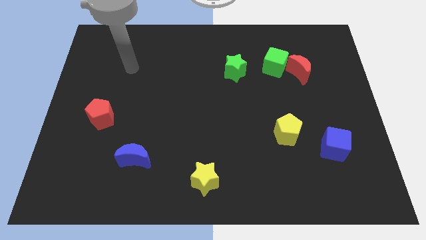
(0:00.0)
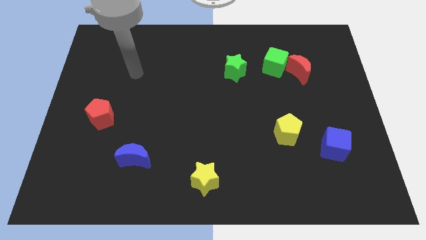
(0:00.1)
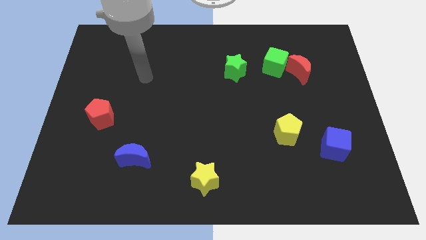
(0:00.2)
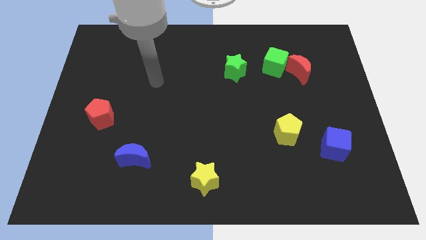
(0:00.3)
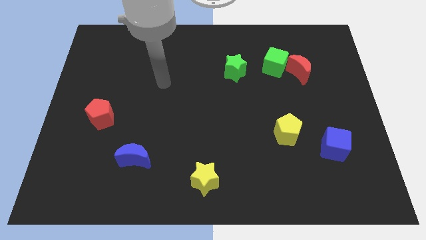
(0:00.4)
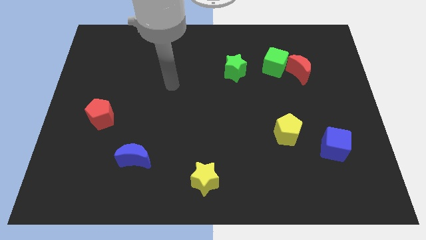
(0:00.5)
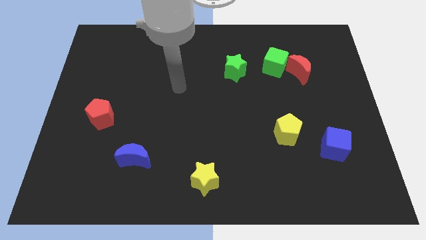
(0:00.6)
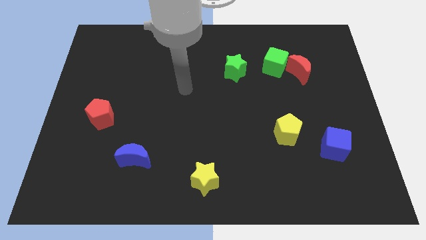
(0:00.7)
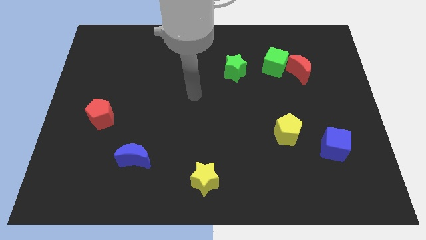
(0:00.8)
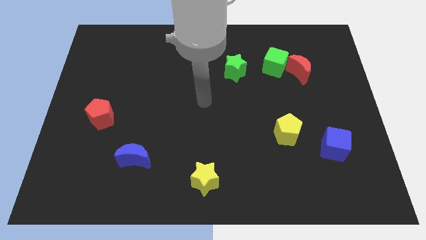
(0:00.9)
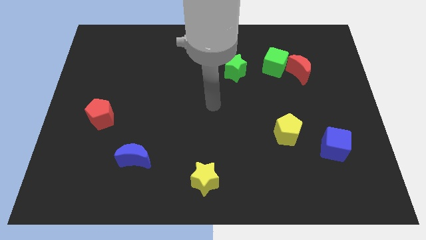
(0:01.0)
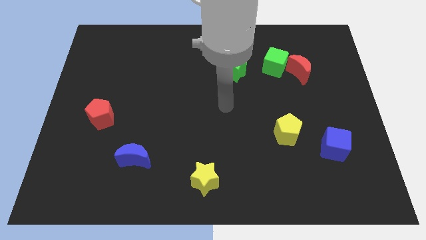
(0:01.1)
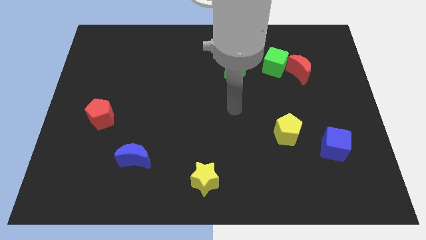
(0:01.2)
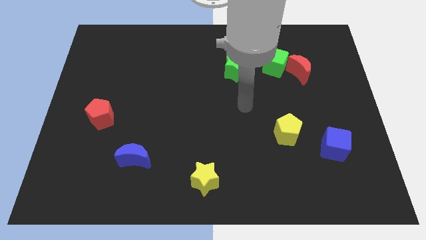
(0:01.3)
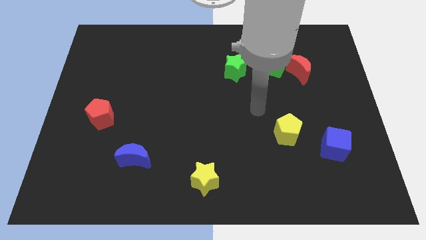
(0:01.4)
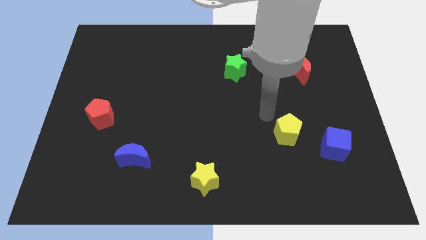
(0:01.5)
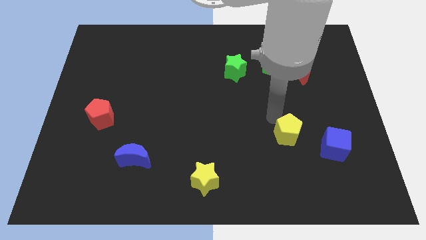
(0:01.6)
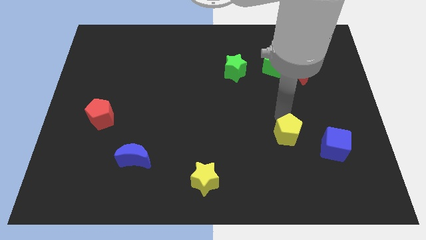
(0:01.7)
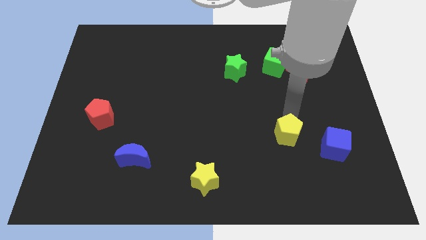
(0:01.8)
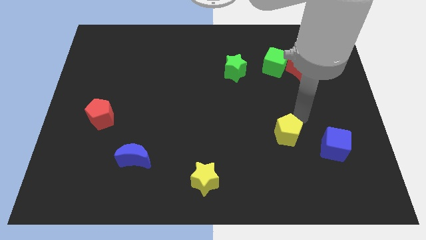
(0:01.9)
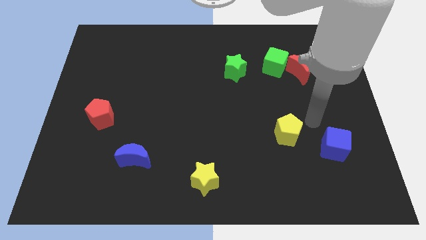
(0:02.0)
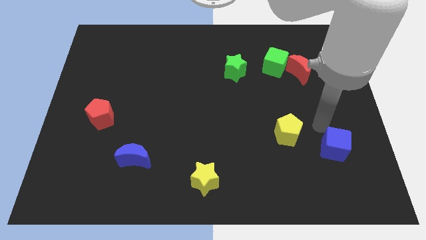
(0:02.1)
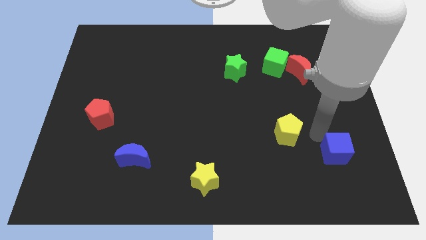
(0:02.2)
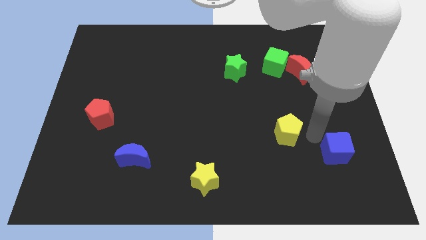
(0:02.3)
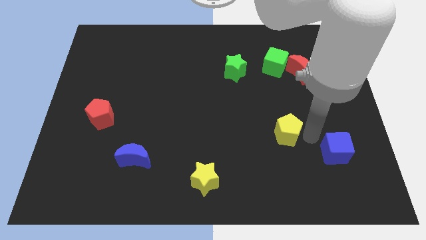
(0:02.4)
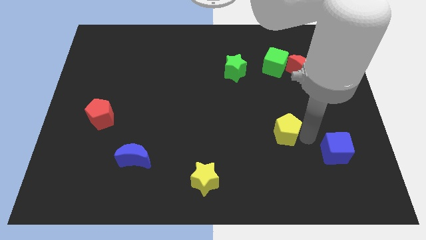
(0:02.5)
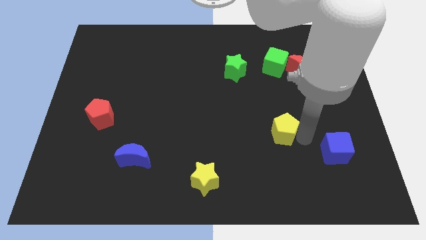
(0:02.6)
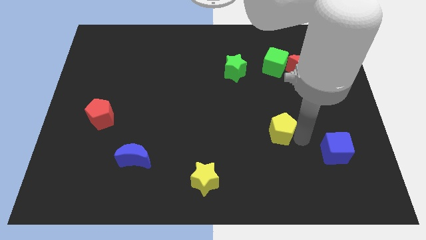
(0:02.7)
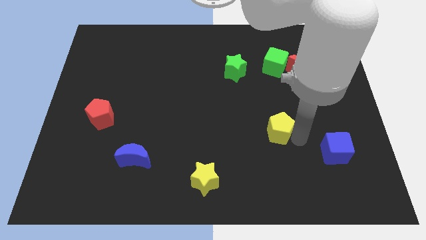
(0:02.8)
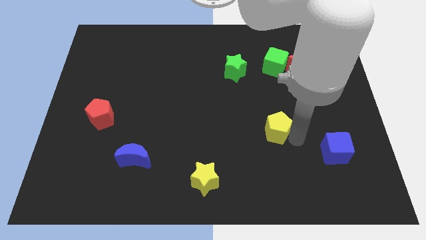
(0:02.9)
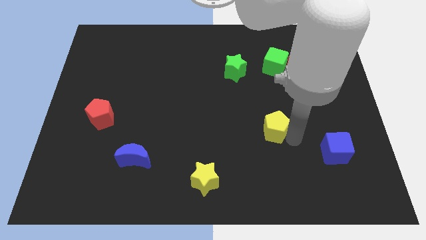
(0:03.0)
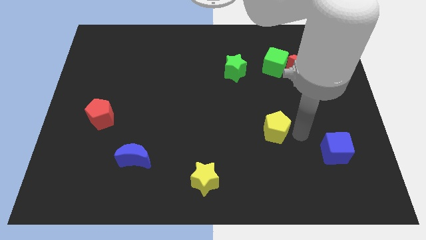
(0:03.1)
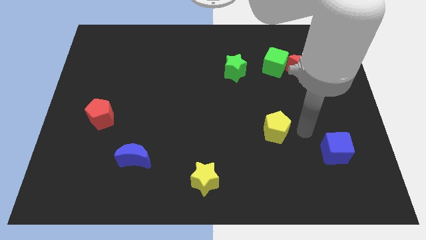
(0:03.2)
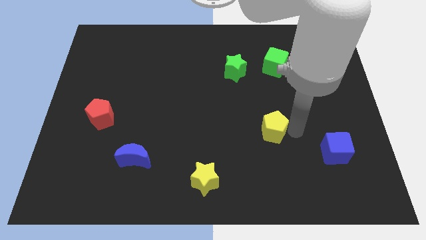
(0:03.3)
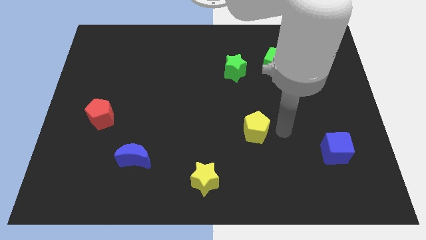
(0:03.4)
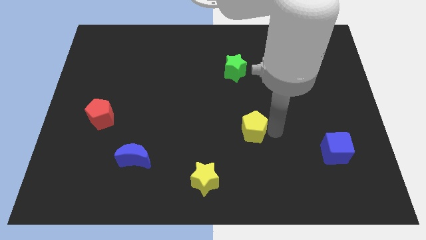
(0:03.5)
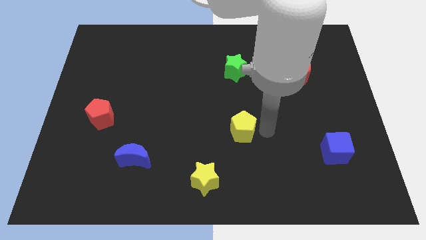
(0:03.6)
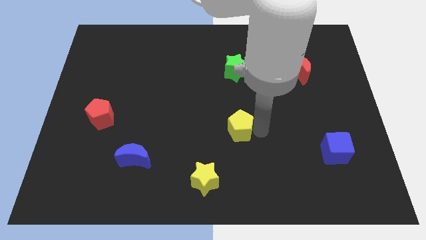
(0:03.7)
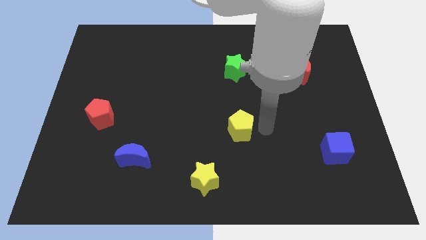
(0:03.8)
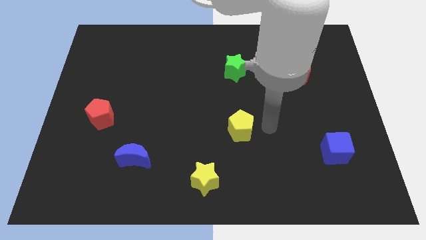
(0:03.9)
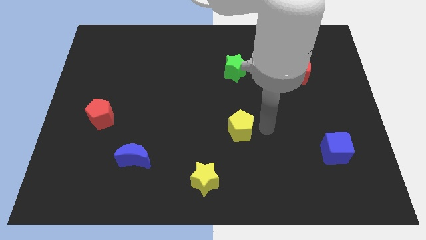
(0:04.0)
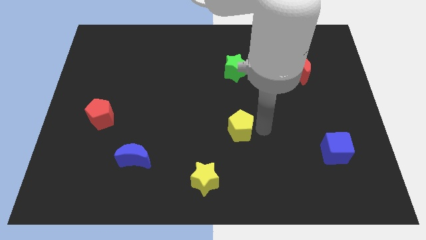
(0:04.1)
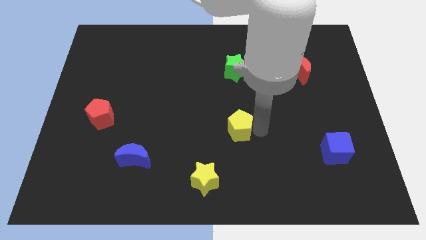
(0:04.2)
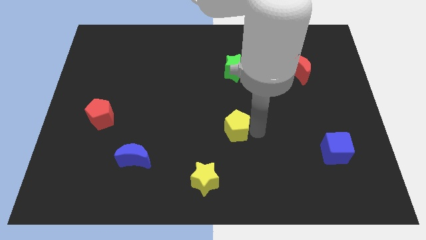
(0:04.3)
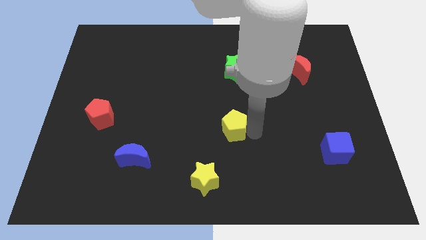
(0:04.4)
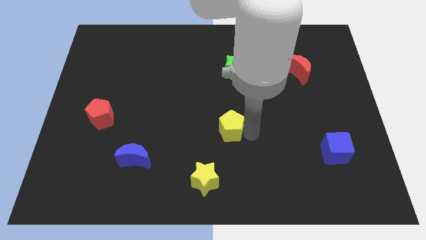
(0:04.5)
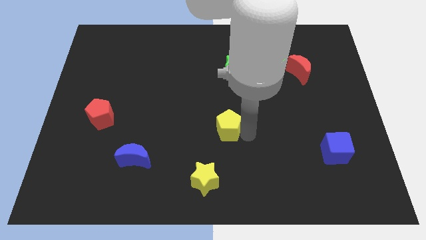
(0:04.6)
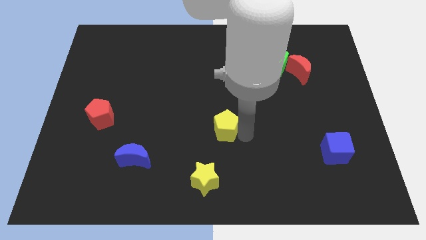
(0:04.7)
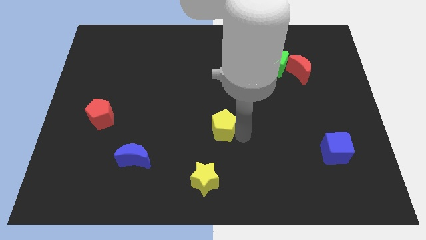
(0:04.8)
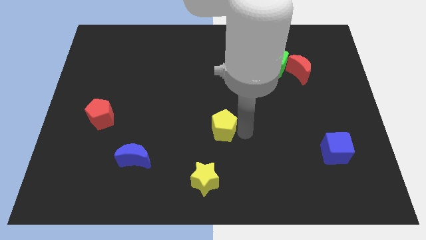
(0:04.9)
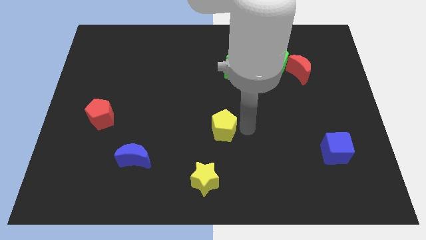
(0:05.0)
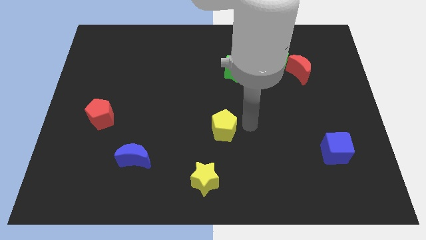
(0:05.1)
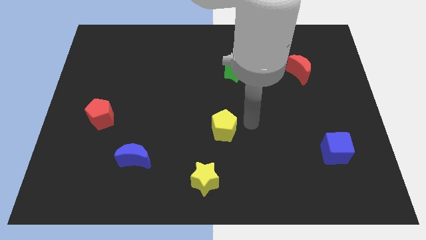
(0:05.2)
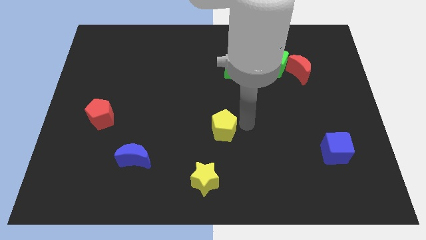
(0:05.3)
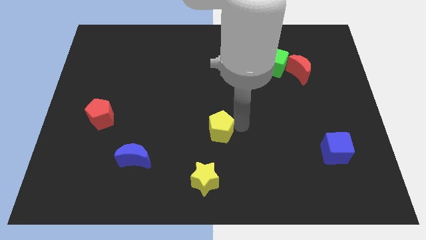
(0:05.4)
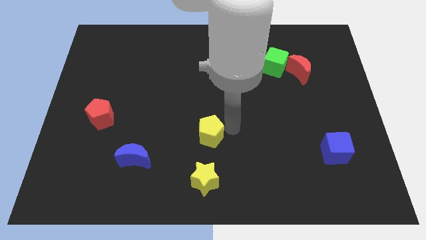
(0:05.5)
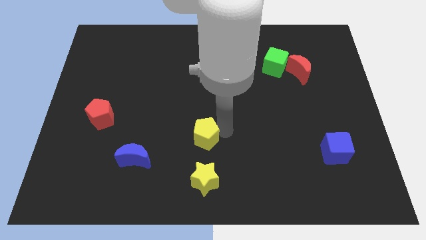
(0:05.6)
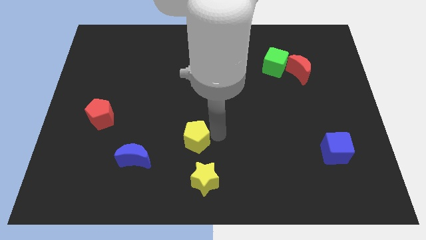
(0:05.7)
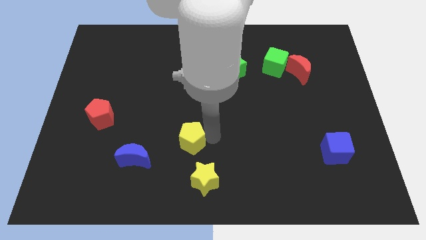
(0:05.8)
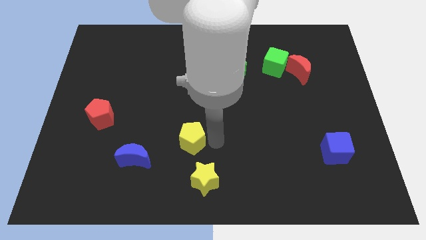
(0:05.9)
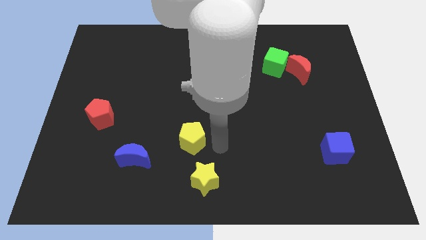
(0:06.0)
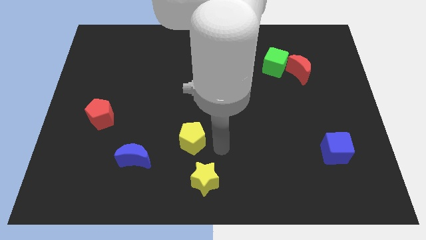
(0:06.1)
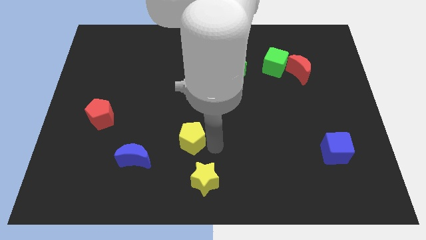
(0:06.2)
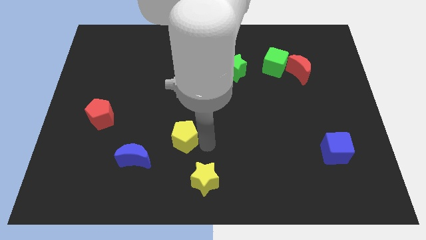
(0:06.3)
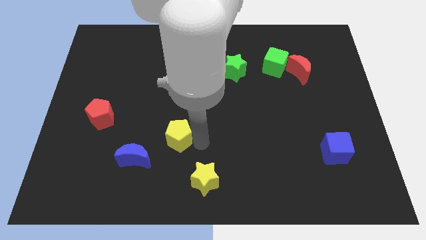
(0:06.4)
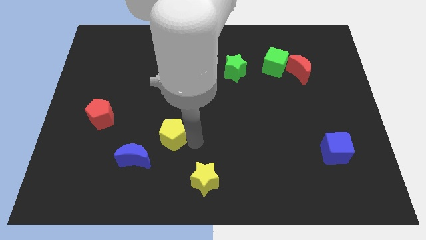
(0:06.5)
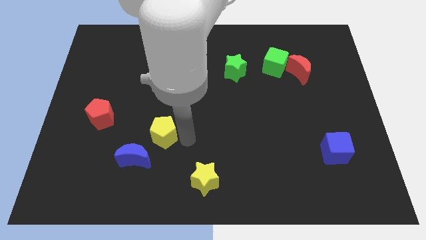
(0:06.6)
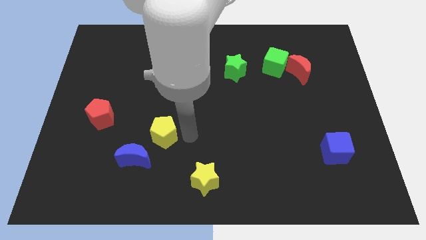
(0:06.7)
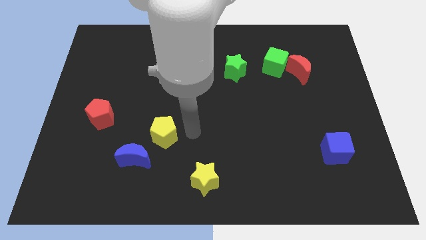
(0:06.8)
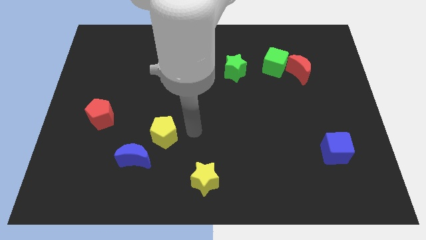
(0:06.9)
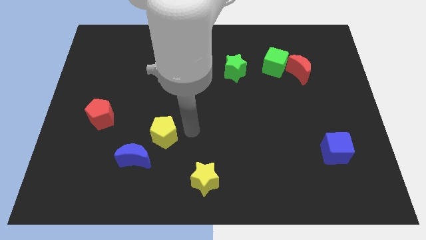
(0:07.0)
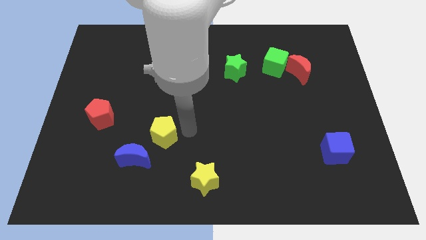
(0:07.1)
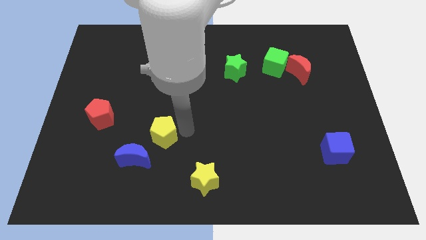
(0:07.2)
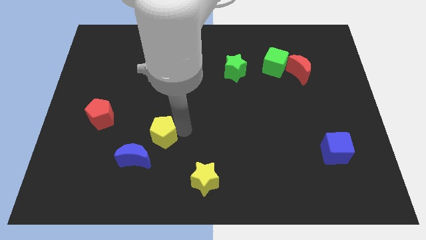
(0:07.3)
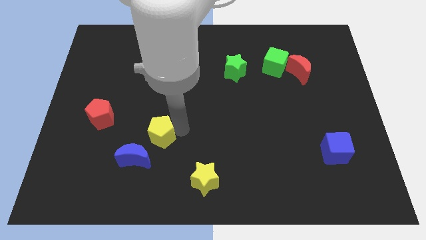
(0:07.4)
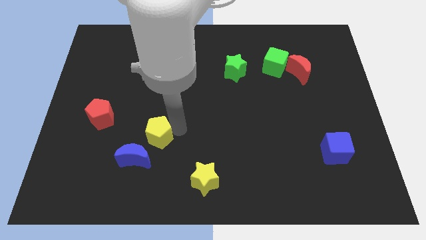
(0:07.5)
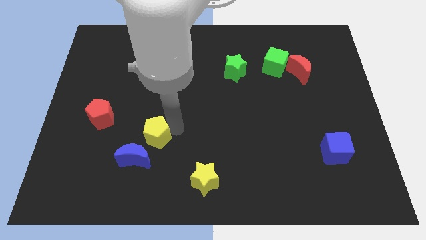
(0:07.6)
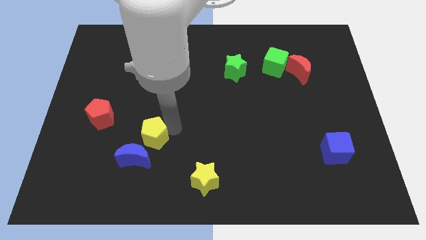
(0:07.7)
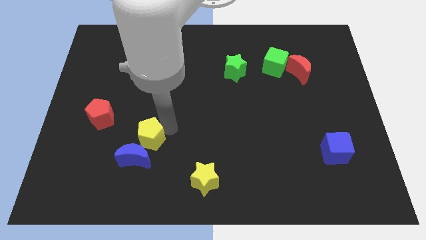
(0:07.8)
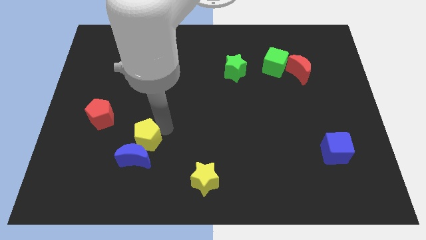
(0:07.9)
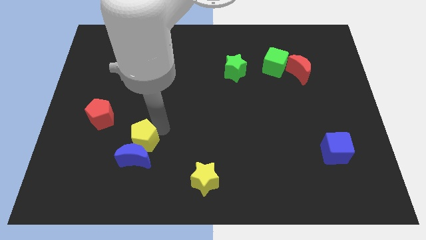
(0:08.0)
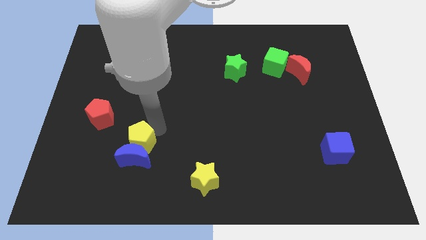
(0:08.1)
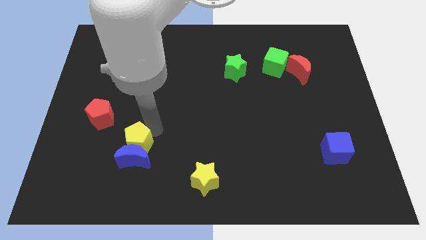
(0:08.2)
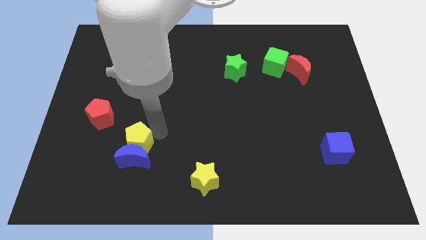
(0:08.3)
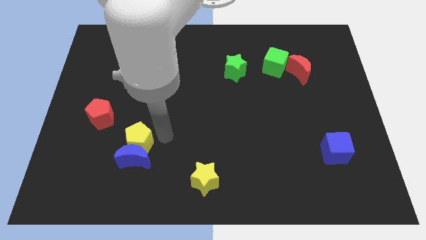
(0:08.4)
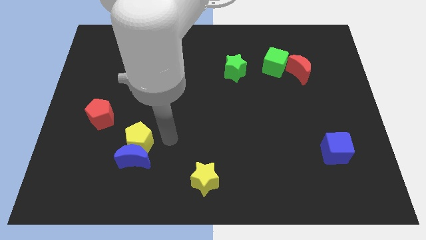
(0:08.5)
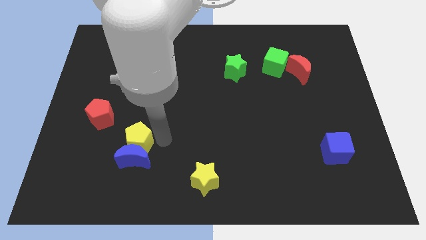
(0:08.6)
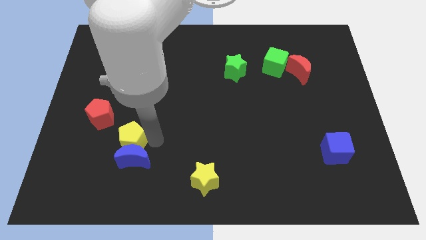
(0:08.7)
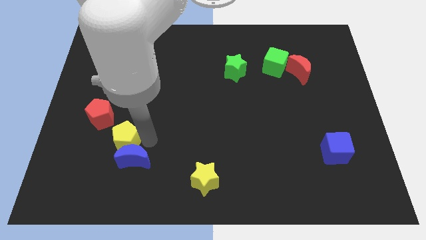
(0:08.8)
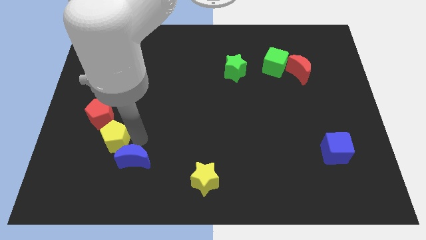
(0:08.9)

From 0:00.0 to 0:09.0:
slide the yellow pentagon left of the blue moon
